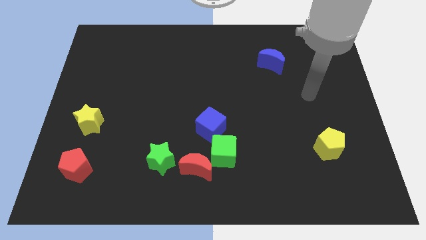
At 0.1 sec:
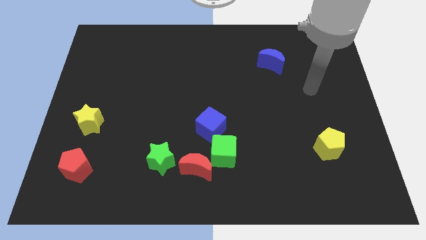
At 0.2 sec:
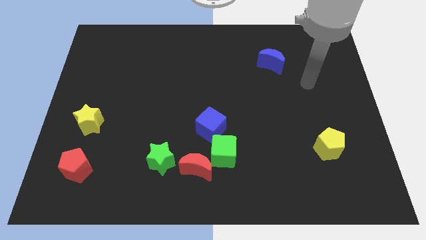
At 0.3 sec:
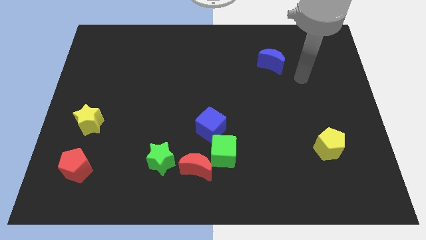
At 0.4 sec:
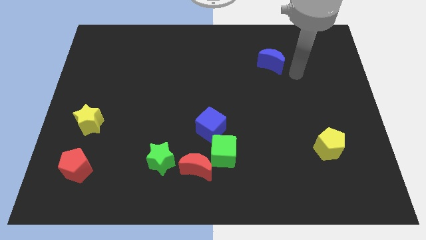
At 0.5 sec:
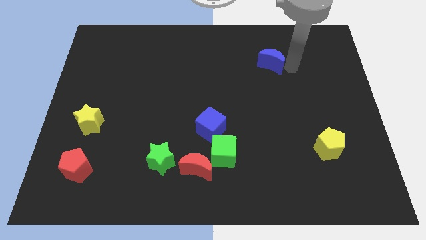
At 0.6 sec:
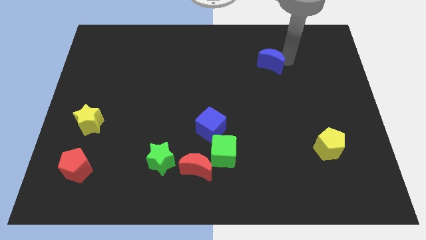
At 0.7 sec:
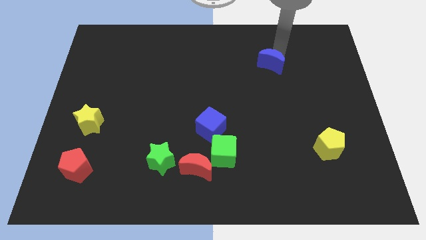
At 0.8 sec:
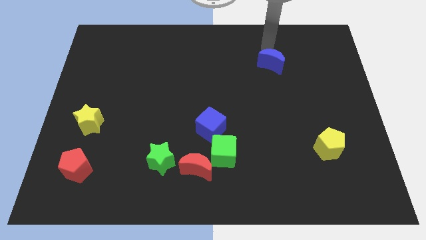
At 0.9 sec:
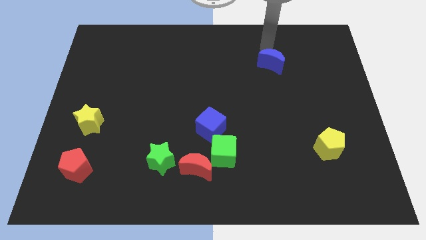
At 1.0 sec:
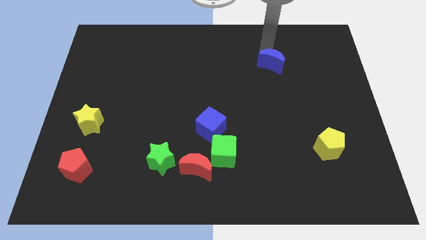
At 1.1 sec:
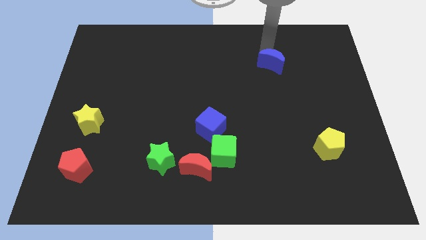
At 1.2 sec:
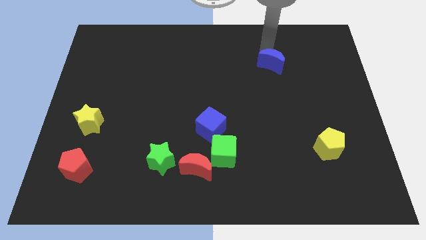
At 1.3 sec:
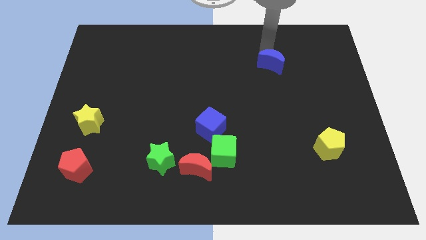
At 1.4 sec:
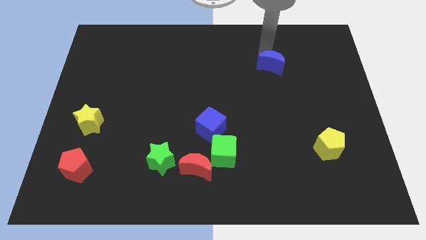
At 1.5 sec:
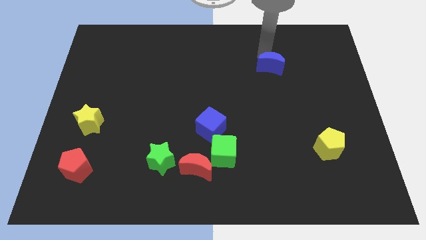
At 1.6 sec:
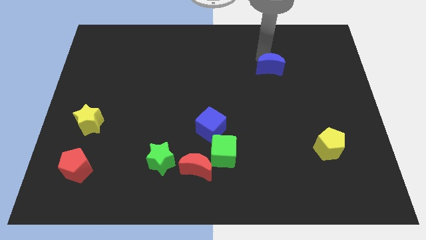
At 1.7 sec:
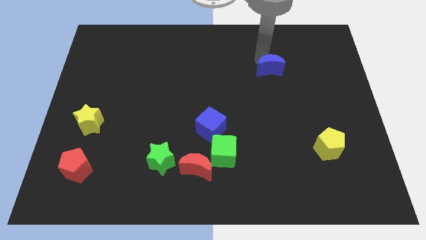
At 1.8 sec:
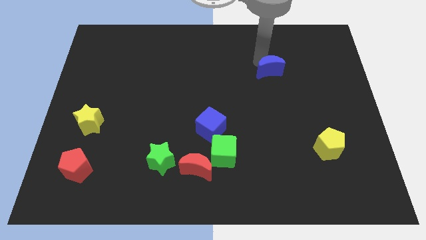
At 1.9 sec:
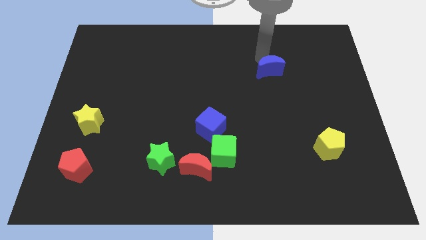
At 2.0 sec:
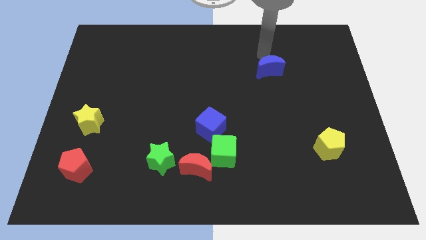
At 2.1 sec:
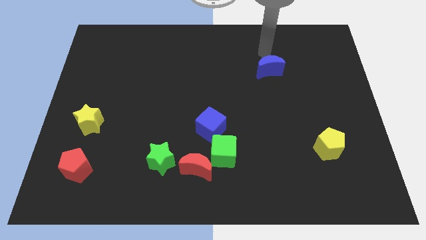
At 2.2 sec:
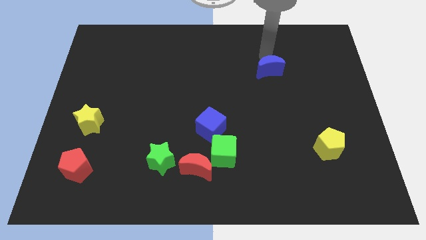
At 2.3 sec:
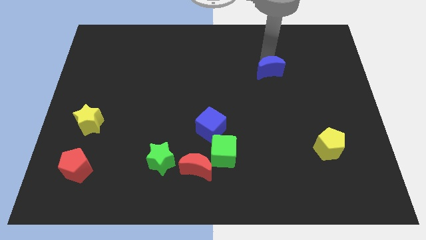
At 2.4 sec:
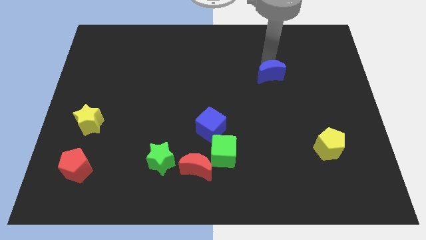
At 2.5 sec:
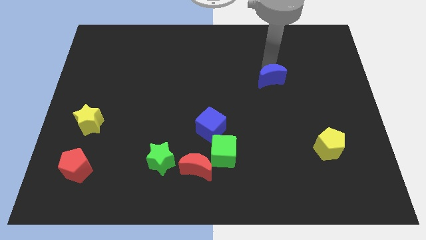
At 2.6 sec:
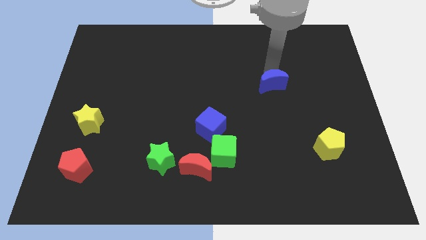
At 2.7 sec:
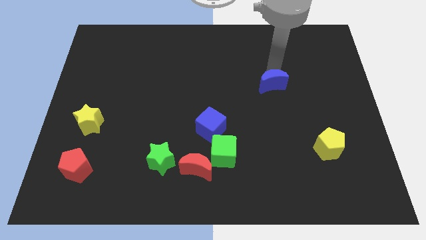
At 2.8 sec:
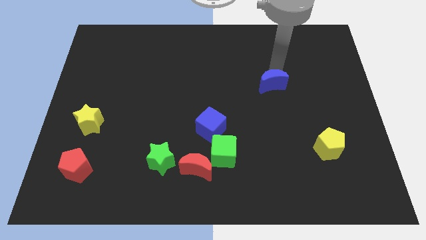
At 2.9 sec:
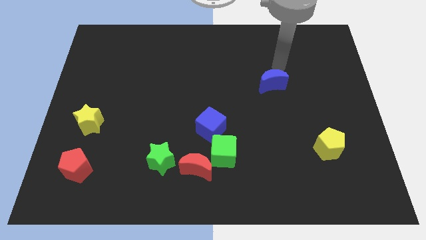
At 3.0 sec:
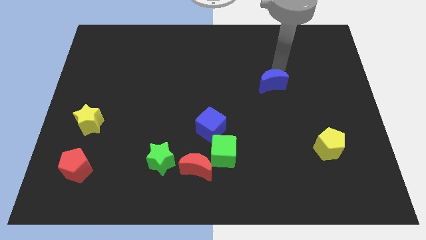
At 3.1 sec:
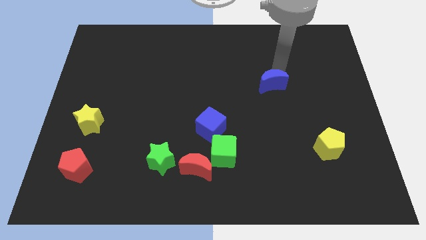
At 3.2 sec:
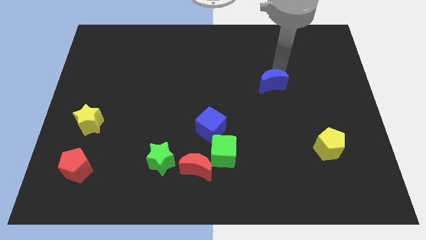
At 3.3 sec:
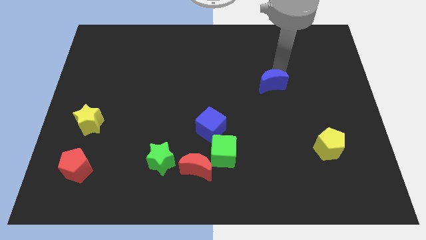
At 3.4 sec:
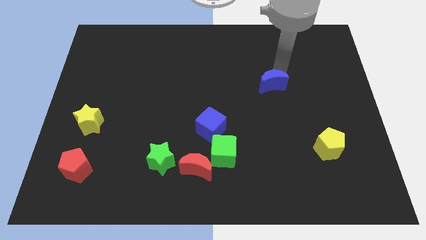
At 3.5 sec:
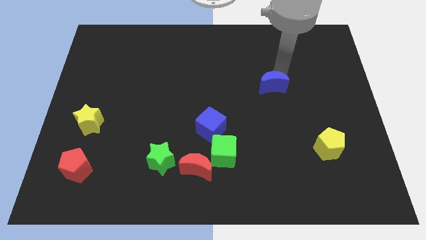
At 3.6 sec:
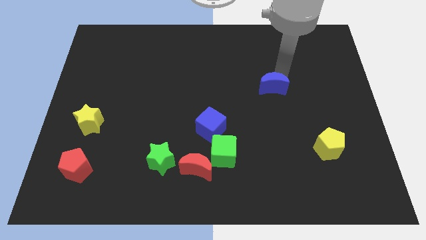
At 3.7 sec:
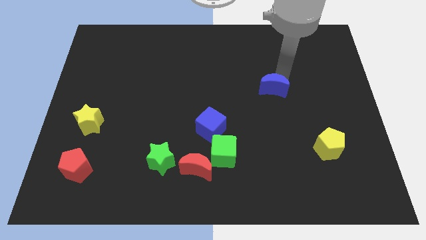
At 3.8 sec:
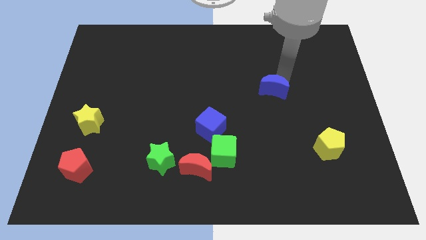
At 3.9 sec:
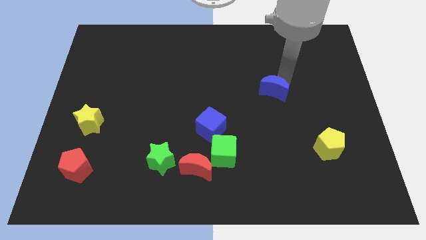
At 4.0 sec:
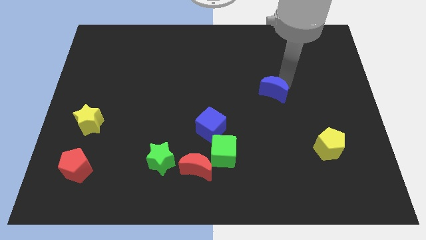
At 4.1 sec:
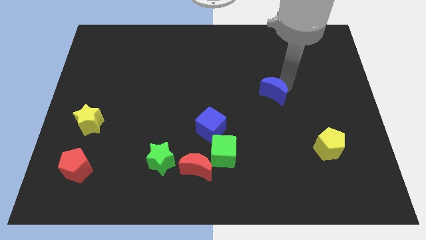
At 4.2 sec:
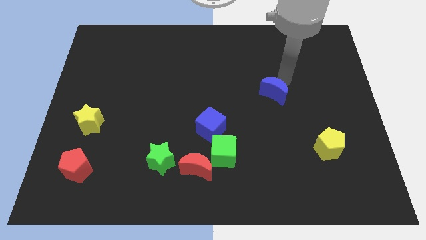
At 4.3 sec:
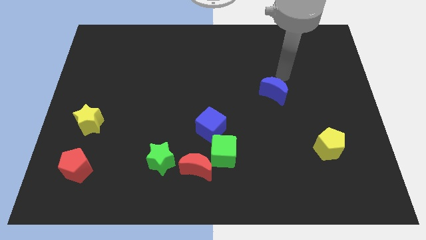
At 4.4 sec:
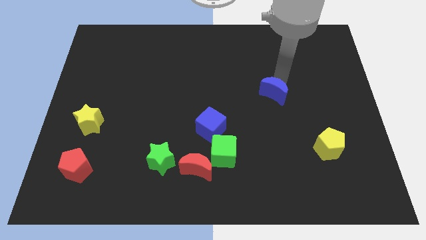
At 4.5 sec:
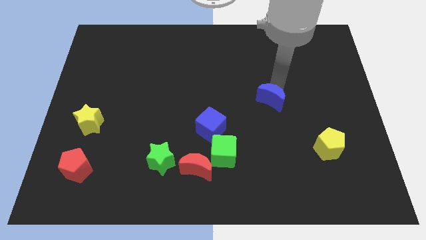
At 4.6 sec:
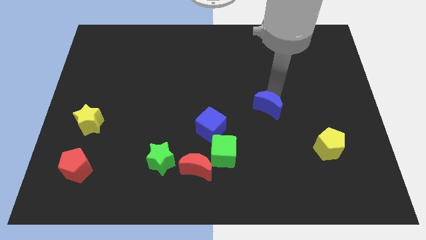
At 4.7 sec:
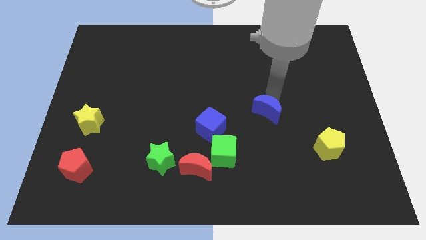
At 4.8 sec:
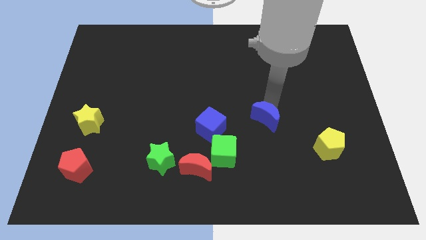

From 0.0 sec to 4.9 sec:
slide the blue moon to the right of the blue cube

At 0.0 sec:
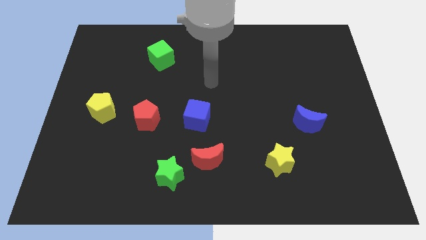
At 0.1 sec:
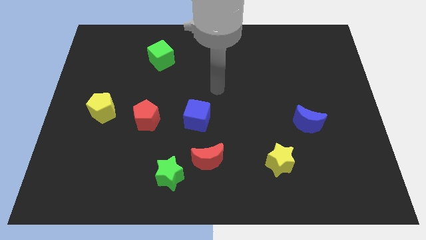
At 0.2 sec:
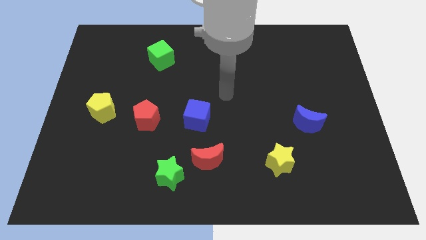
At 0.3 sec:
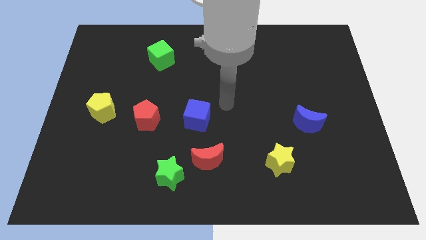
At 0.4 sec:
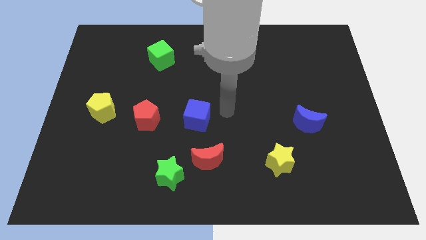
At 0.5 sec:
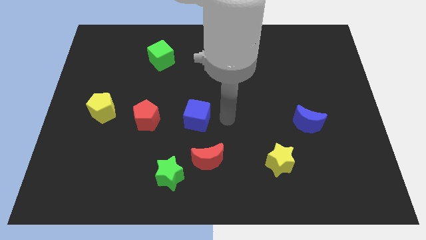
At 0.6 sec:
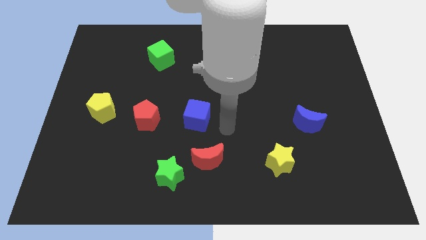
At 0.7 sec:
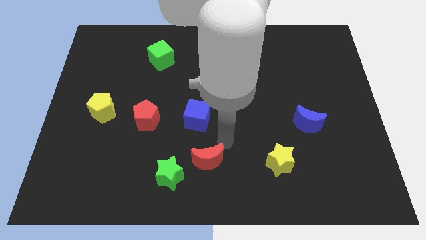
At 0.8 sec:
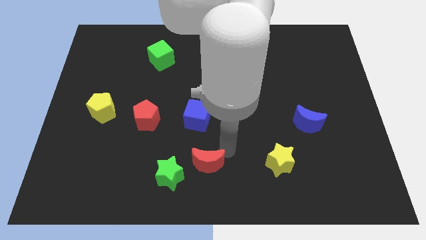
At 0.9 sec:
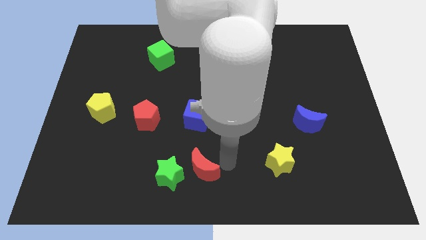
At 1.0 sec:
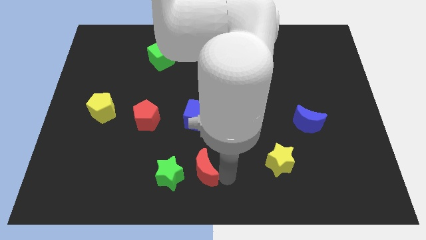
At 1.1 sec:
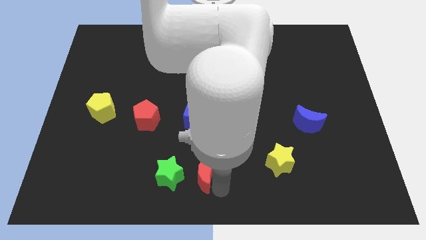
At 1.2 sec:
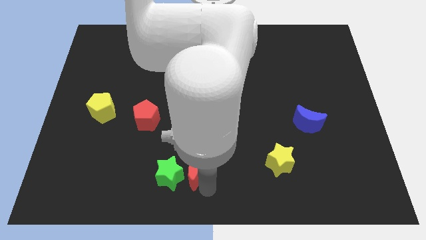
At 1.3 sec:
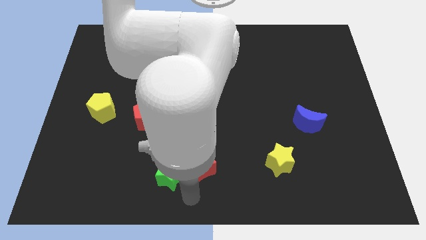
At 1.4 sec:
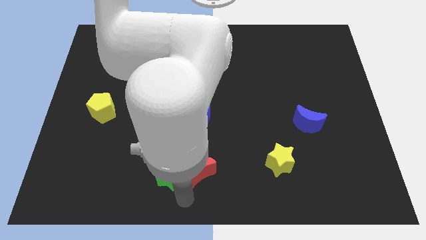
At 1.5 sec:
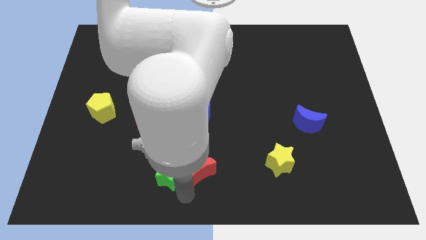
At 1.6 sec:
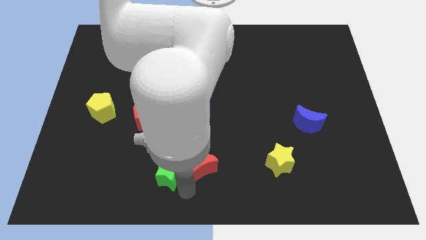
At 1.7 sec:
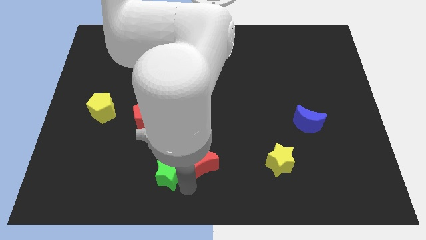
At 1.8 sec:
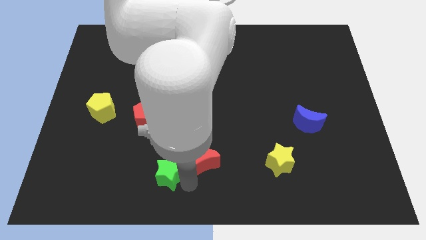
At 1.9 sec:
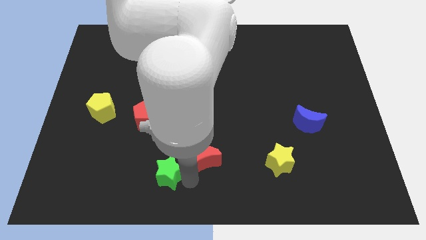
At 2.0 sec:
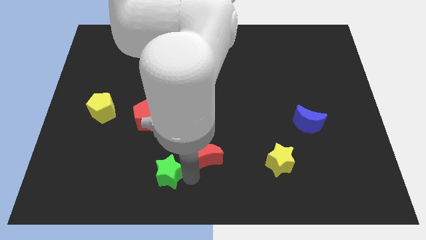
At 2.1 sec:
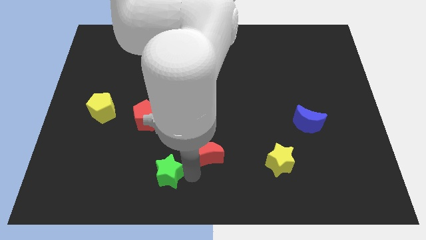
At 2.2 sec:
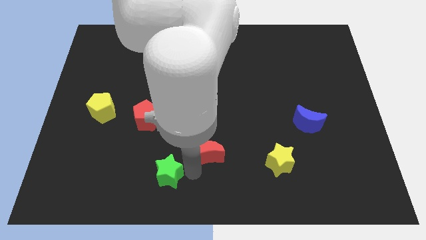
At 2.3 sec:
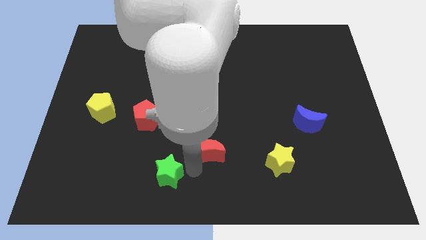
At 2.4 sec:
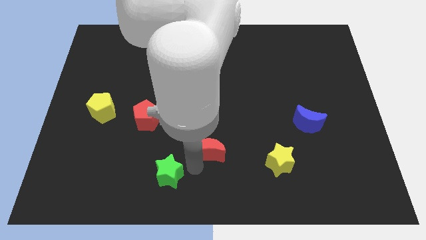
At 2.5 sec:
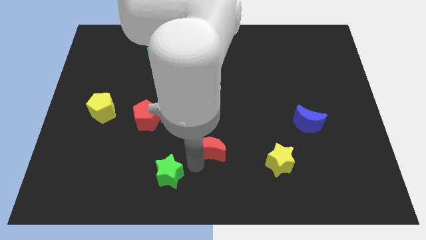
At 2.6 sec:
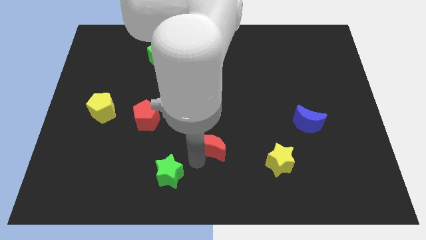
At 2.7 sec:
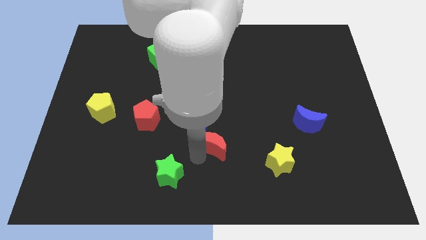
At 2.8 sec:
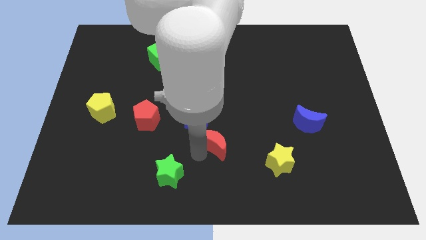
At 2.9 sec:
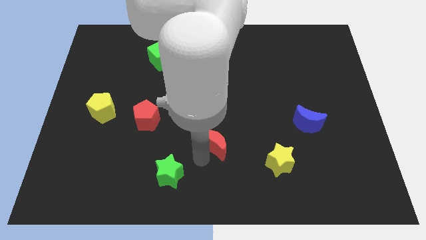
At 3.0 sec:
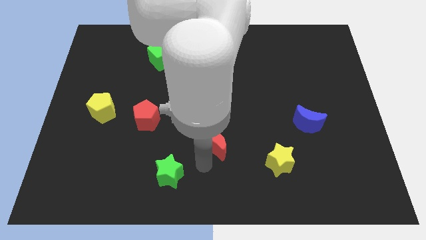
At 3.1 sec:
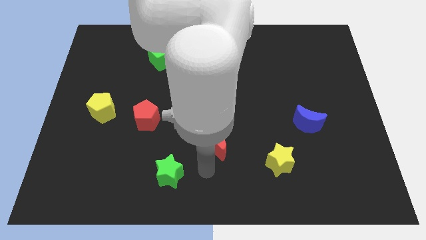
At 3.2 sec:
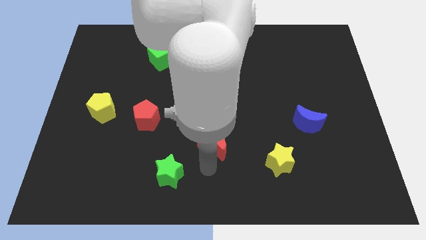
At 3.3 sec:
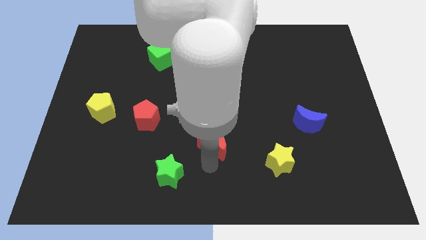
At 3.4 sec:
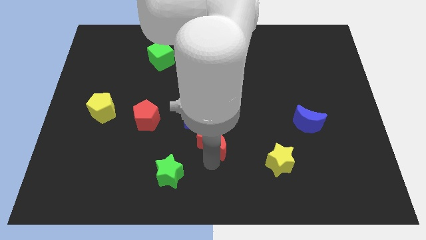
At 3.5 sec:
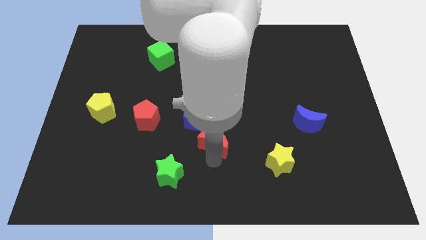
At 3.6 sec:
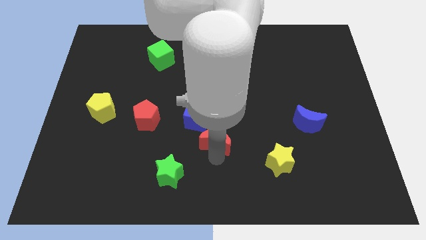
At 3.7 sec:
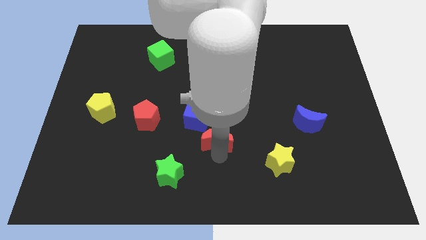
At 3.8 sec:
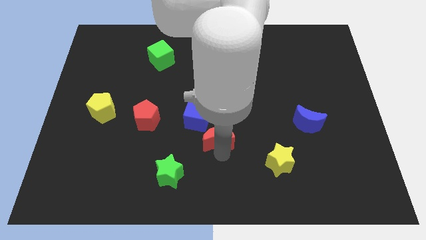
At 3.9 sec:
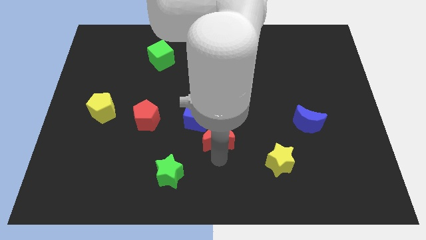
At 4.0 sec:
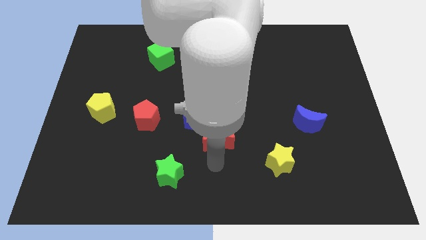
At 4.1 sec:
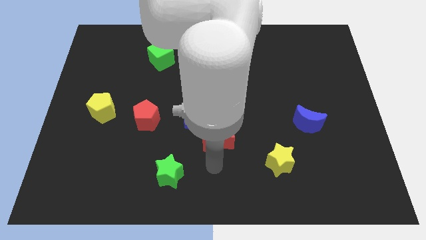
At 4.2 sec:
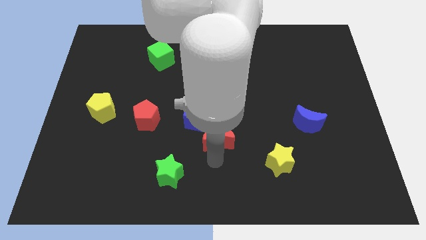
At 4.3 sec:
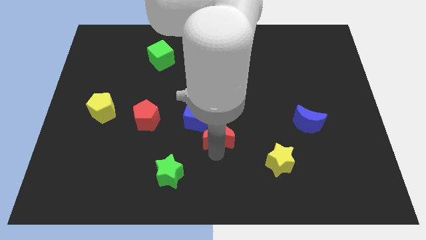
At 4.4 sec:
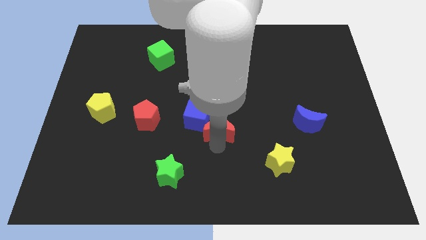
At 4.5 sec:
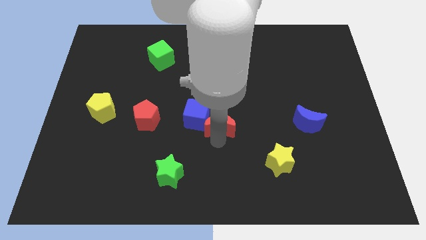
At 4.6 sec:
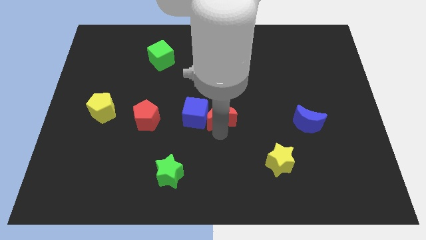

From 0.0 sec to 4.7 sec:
slide the red moon diagonally up and to the right of the blue cube
